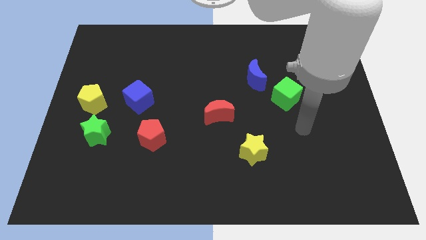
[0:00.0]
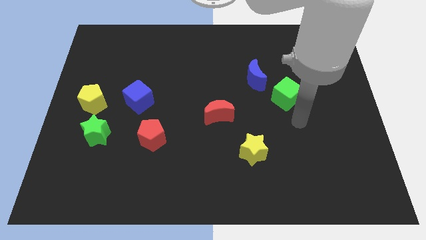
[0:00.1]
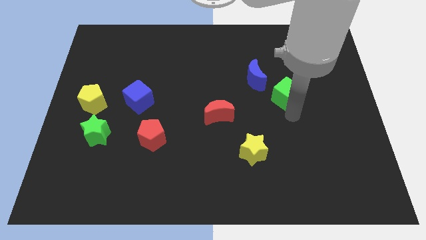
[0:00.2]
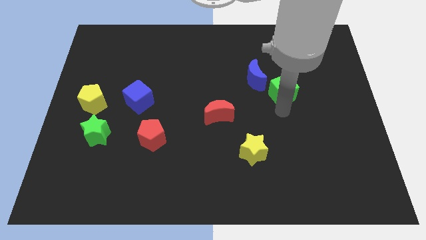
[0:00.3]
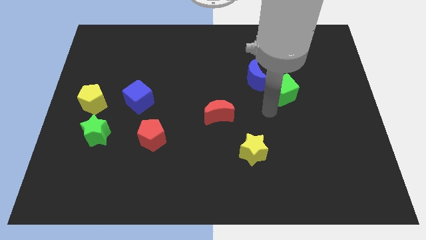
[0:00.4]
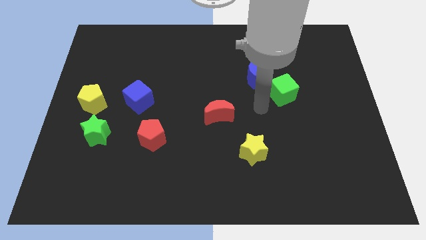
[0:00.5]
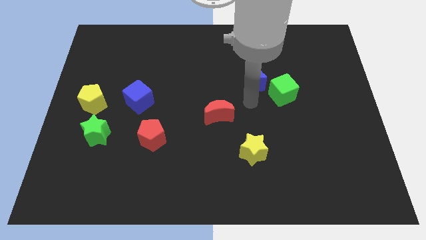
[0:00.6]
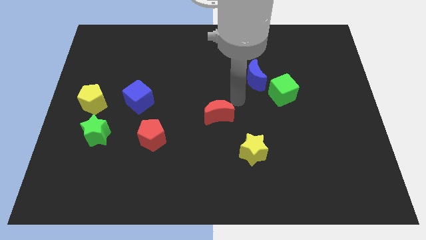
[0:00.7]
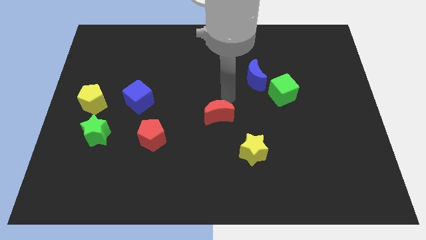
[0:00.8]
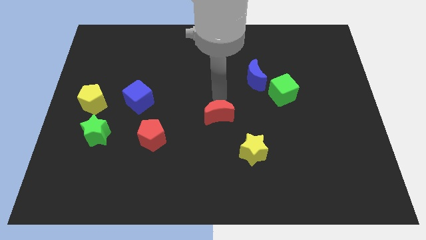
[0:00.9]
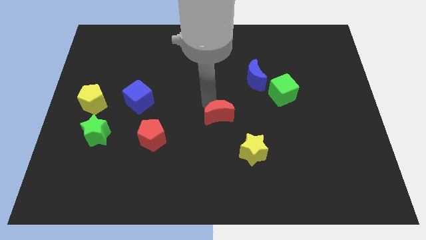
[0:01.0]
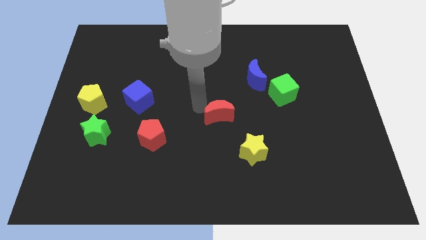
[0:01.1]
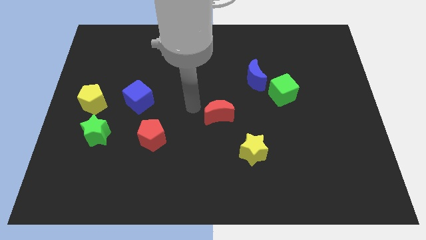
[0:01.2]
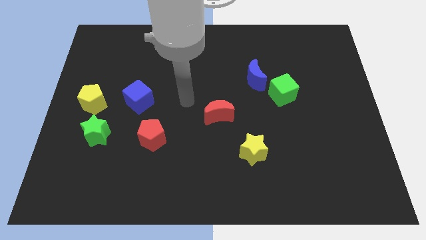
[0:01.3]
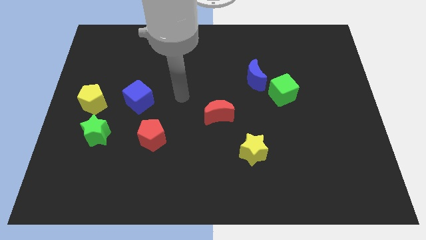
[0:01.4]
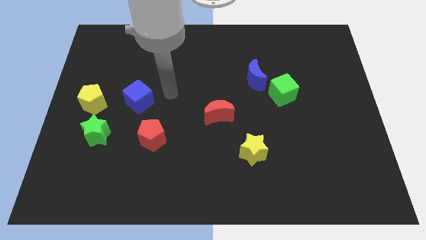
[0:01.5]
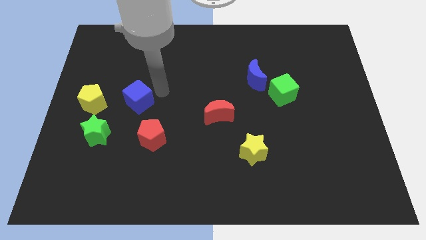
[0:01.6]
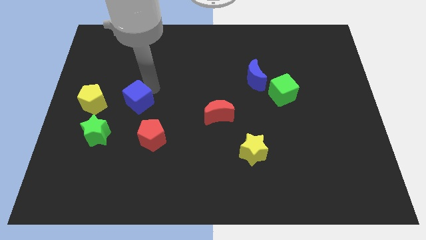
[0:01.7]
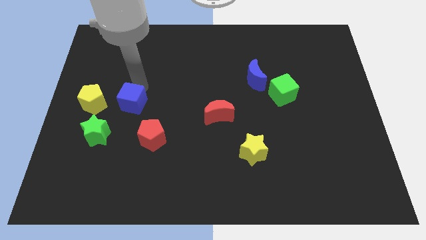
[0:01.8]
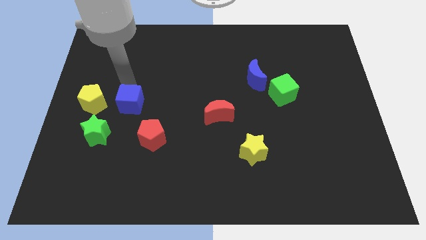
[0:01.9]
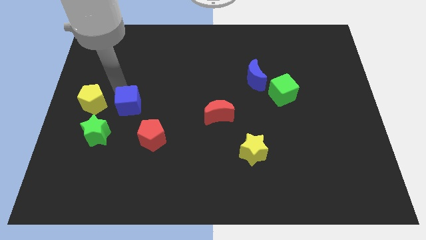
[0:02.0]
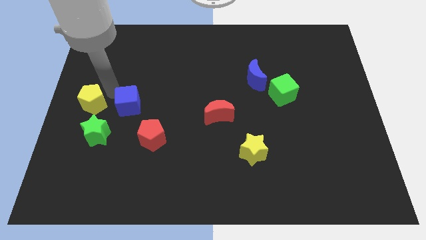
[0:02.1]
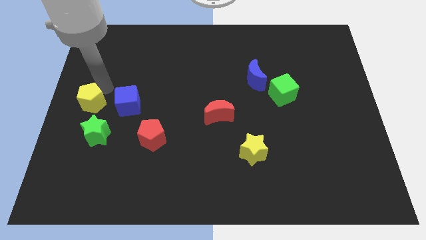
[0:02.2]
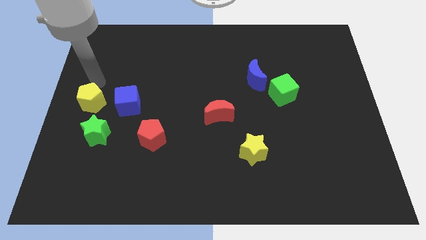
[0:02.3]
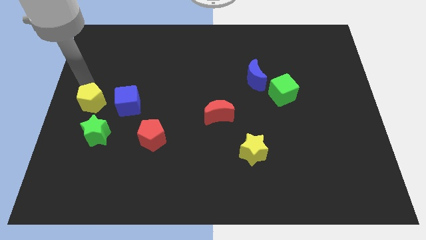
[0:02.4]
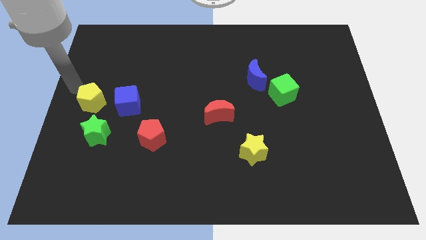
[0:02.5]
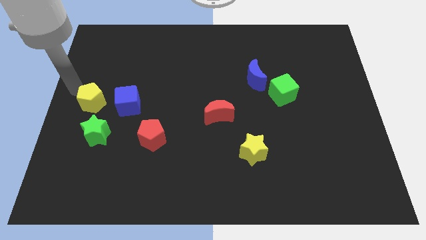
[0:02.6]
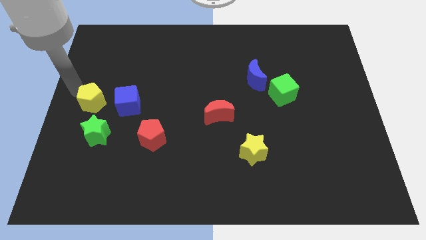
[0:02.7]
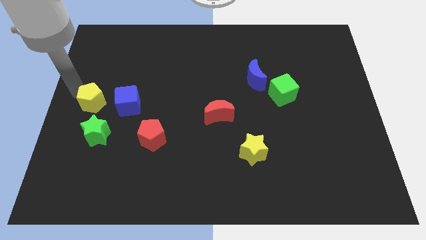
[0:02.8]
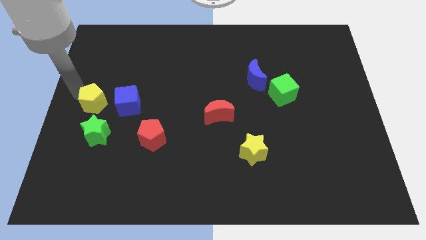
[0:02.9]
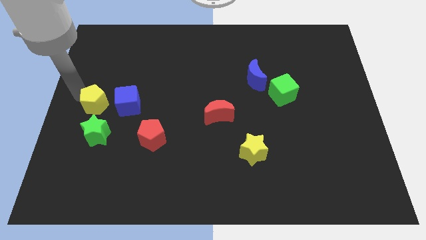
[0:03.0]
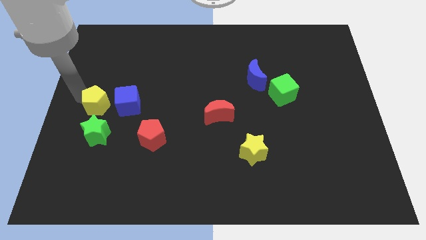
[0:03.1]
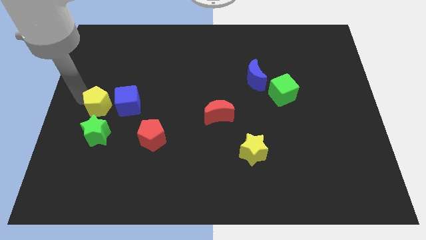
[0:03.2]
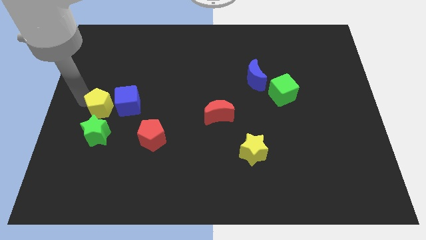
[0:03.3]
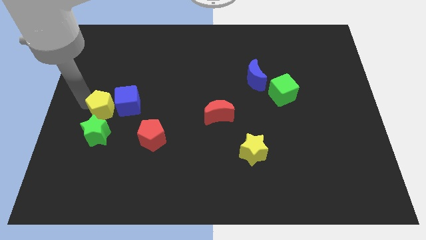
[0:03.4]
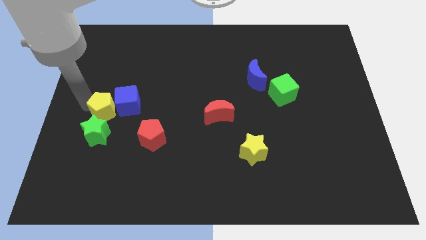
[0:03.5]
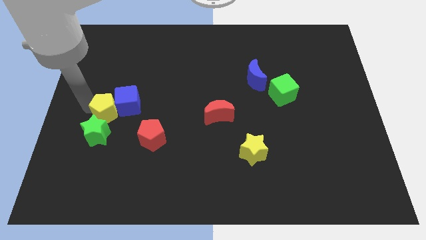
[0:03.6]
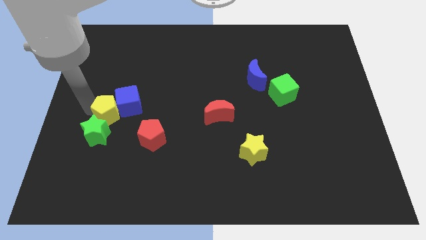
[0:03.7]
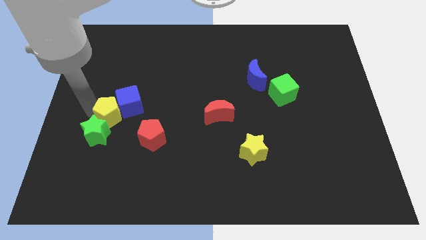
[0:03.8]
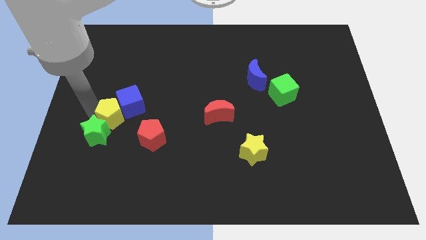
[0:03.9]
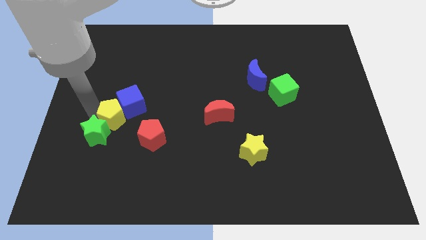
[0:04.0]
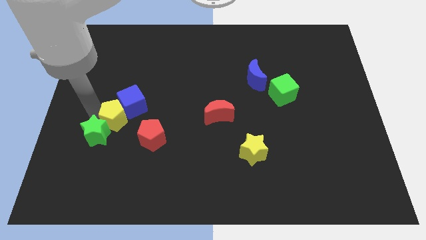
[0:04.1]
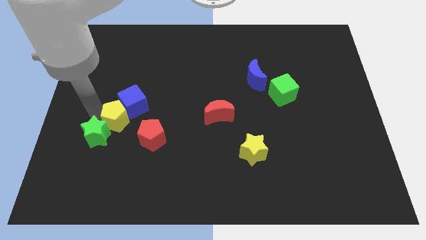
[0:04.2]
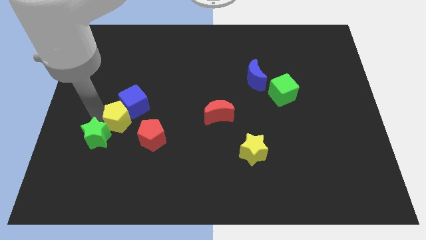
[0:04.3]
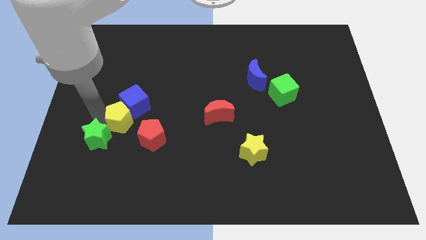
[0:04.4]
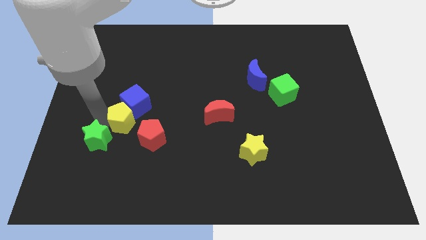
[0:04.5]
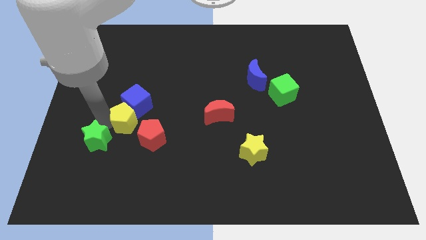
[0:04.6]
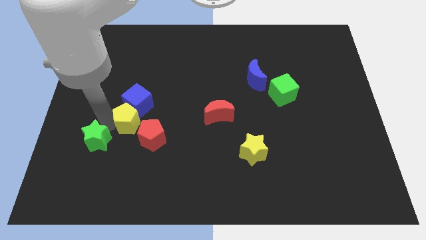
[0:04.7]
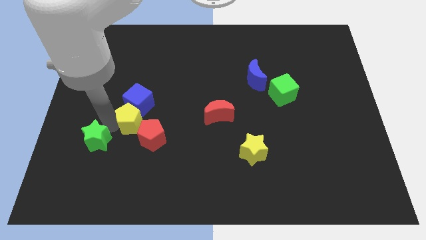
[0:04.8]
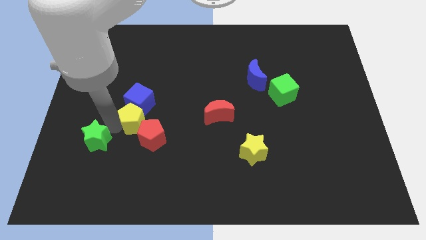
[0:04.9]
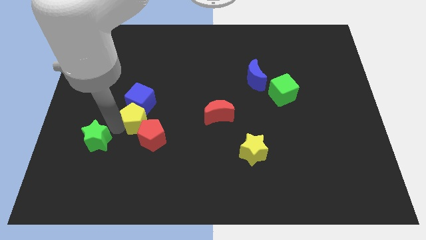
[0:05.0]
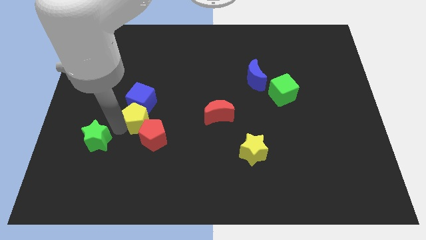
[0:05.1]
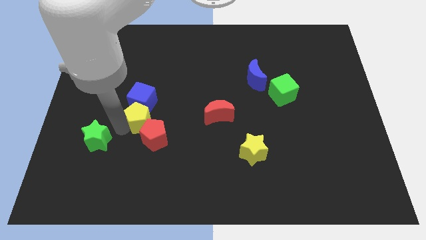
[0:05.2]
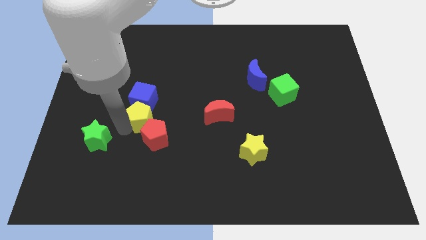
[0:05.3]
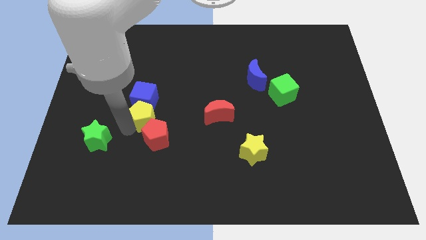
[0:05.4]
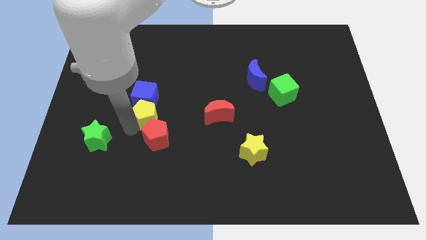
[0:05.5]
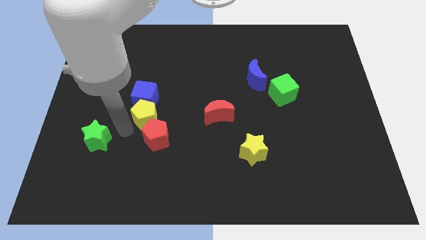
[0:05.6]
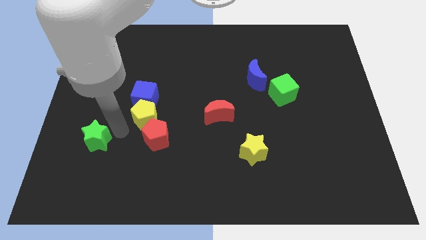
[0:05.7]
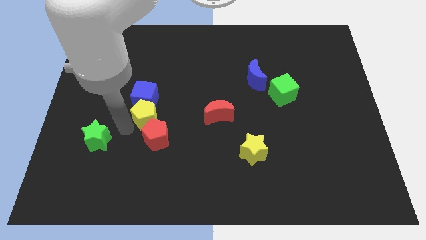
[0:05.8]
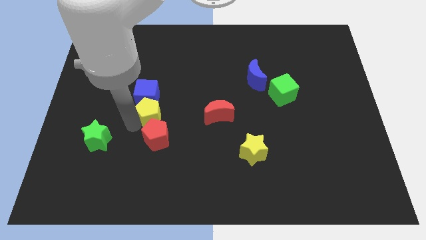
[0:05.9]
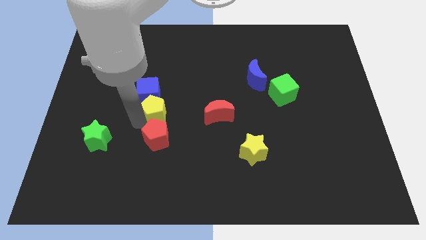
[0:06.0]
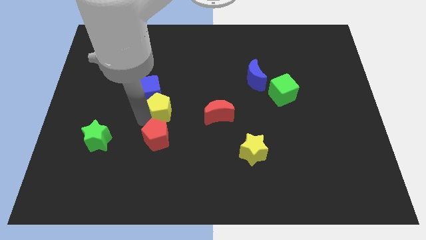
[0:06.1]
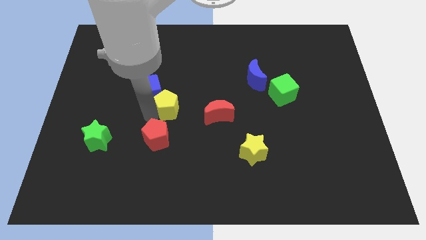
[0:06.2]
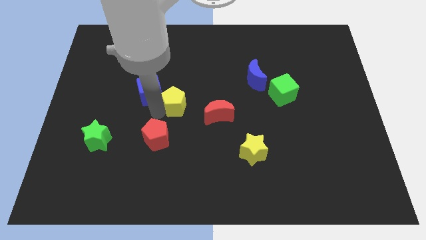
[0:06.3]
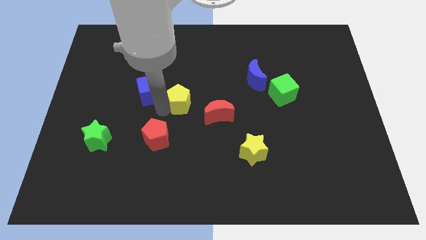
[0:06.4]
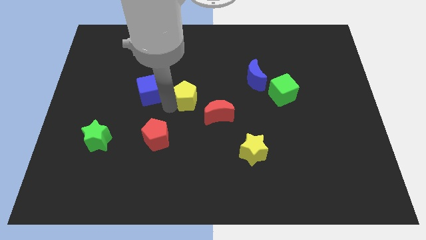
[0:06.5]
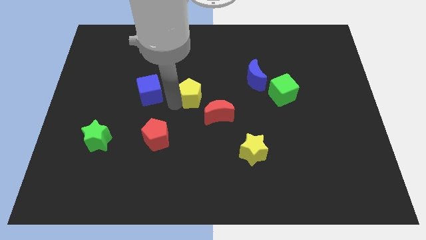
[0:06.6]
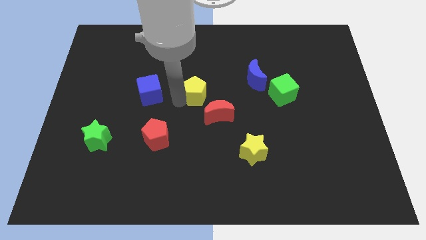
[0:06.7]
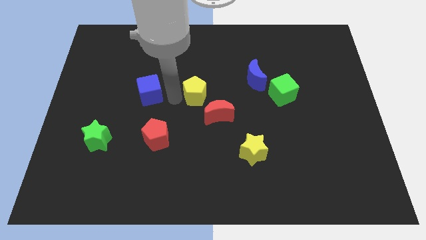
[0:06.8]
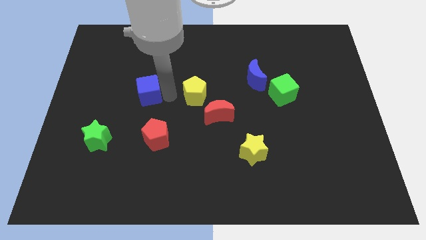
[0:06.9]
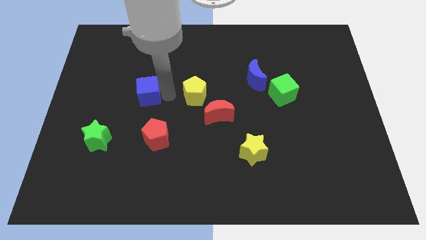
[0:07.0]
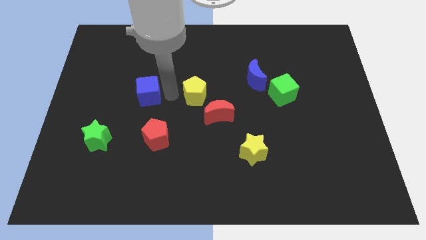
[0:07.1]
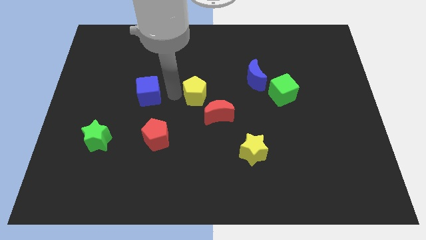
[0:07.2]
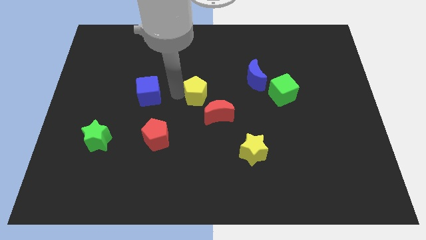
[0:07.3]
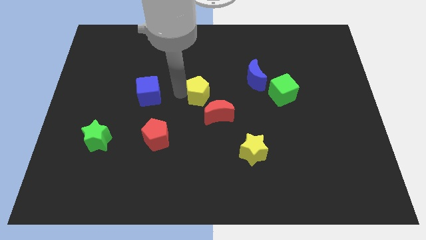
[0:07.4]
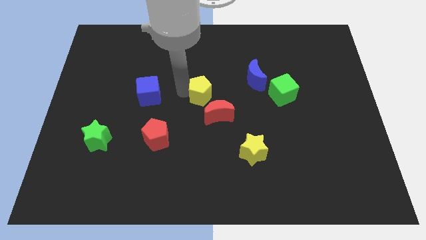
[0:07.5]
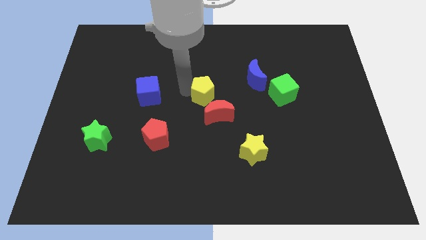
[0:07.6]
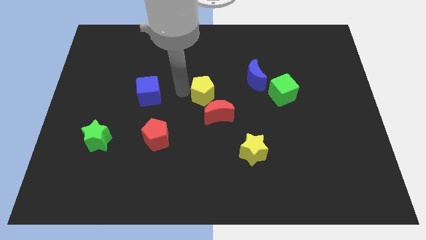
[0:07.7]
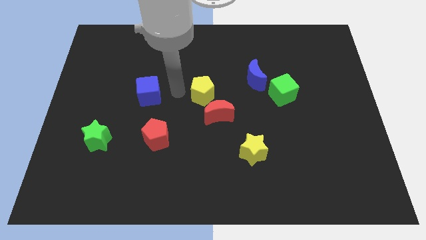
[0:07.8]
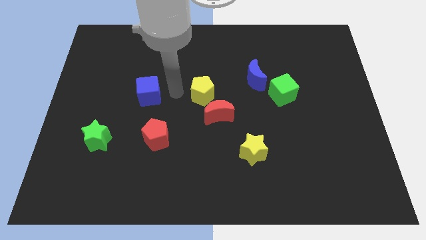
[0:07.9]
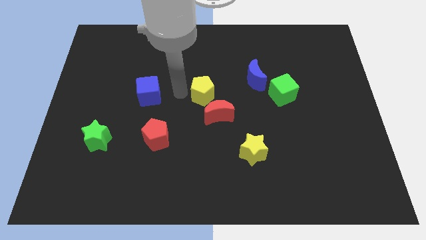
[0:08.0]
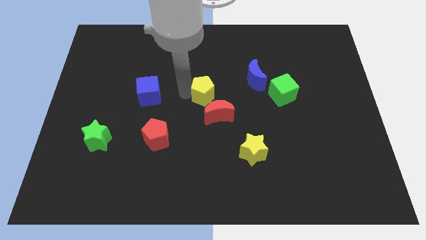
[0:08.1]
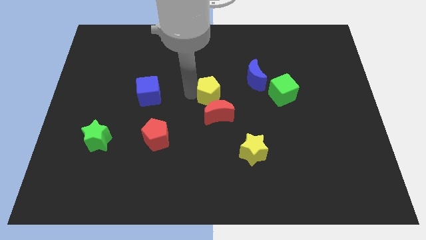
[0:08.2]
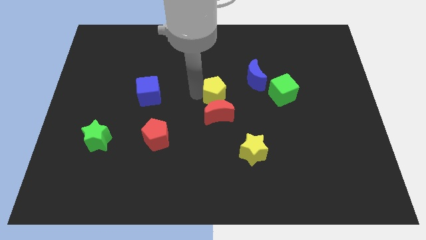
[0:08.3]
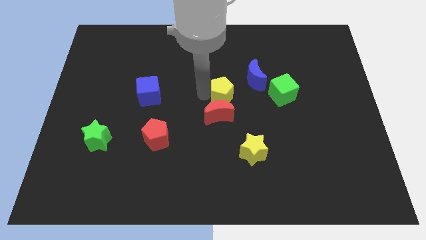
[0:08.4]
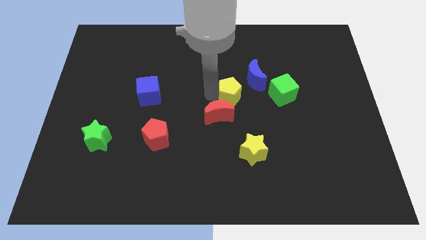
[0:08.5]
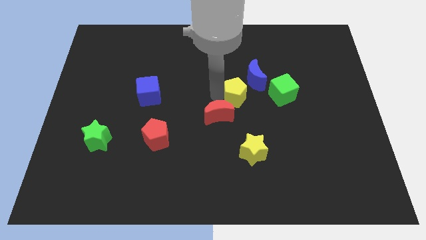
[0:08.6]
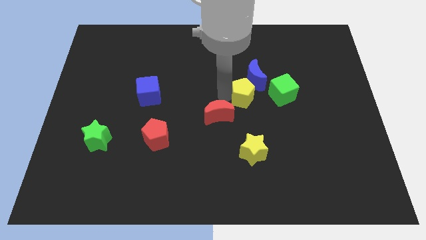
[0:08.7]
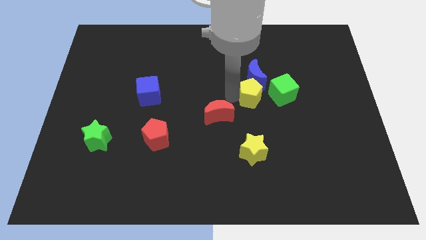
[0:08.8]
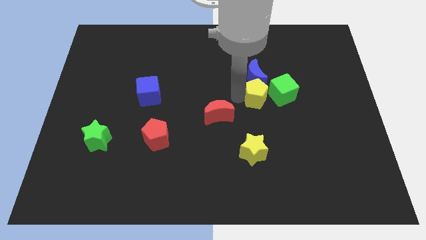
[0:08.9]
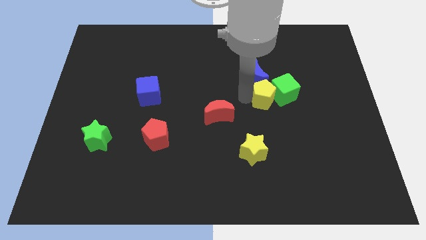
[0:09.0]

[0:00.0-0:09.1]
push the yellow pentagon to the green cube
